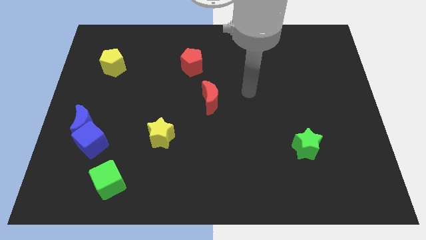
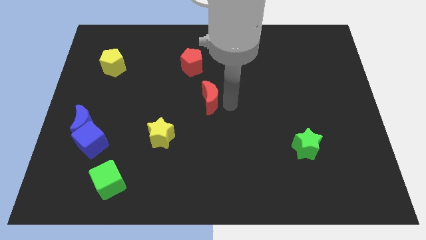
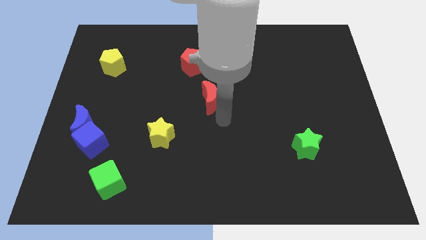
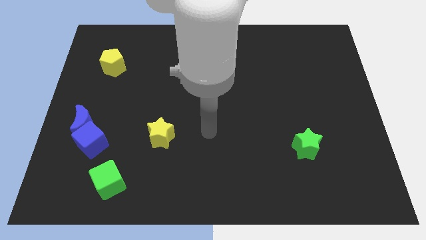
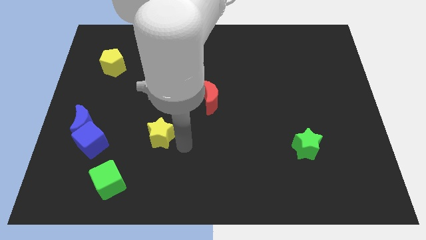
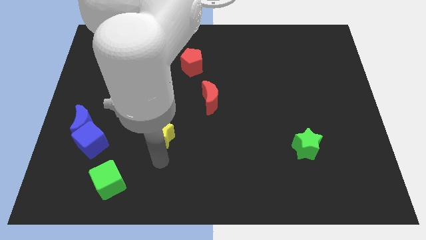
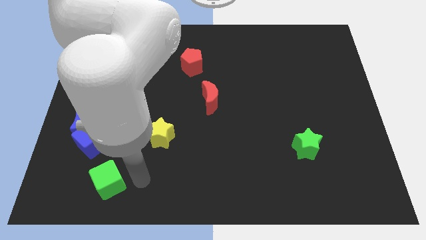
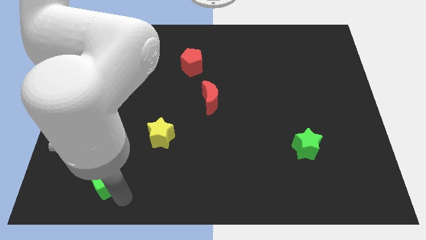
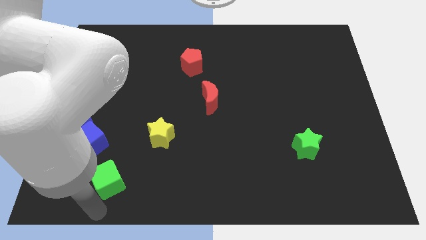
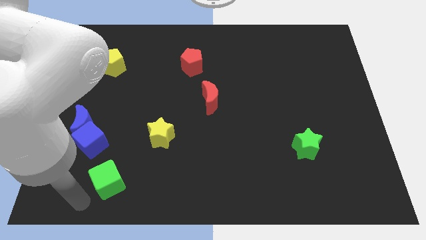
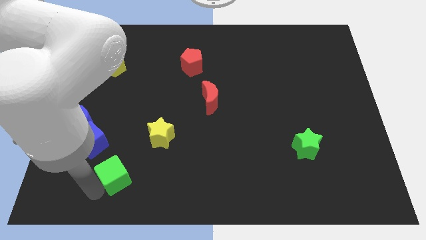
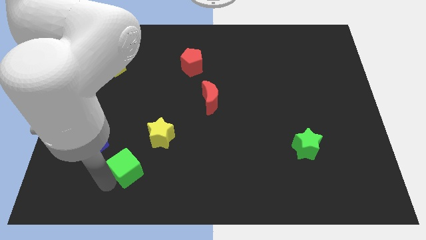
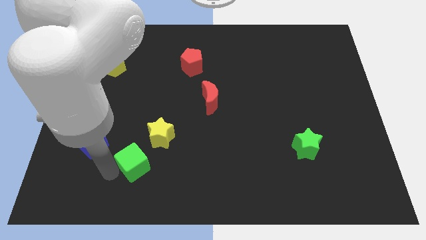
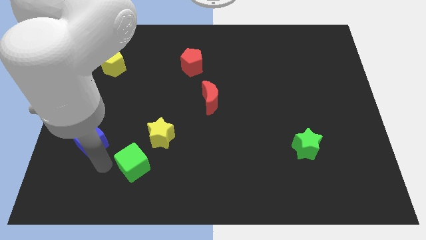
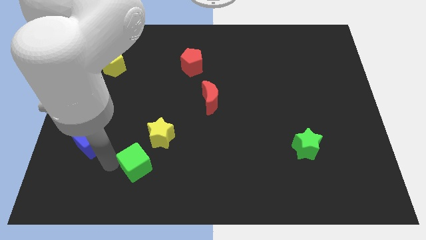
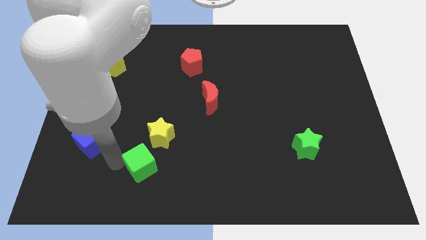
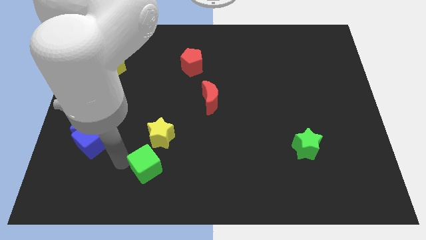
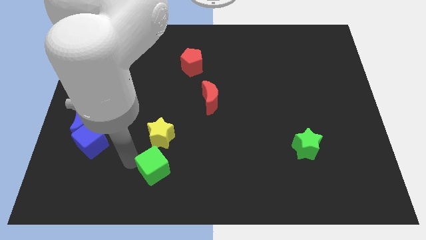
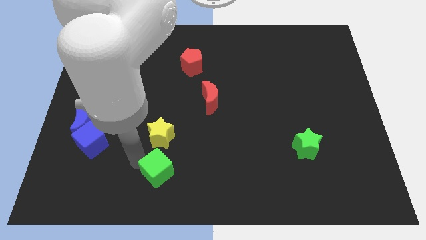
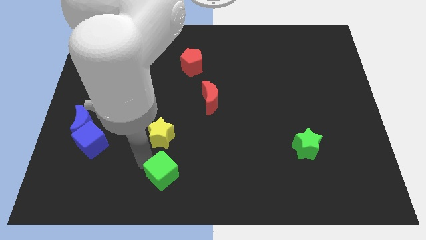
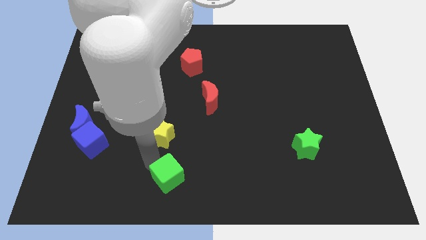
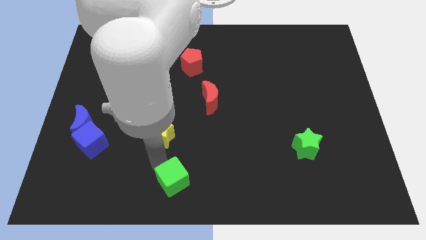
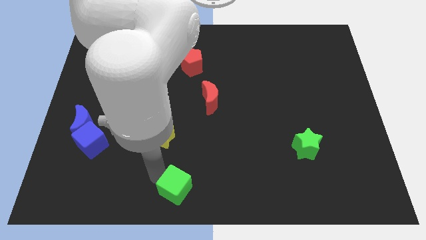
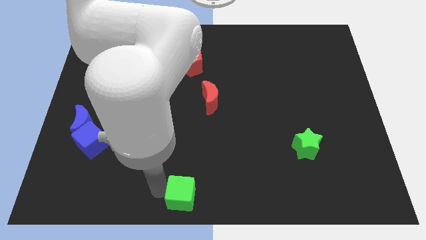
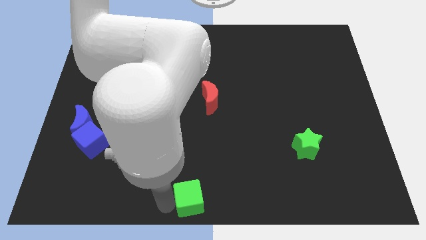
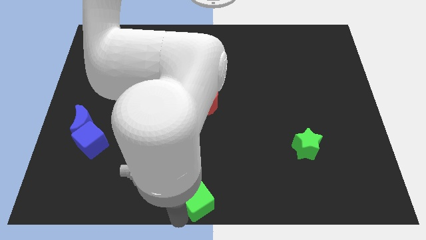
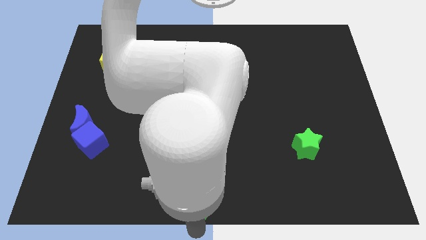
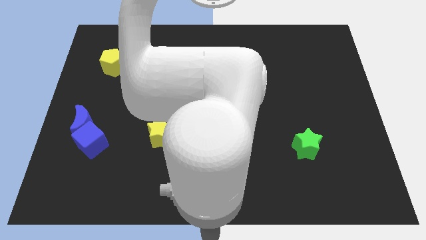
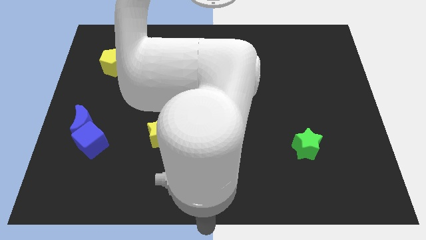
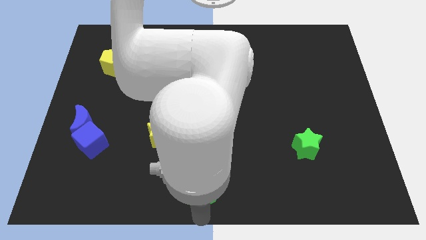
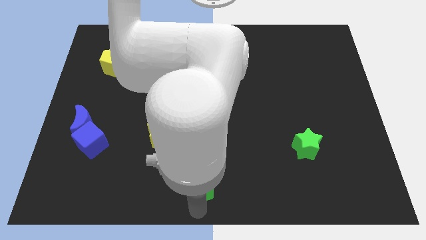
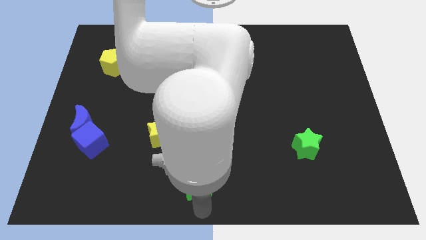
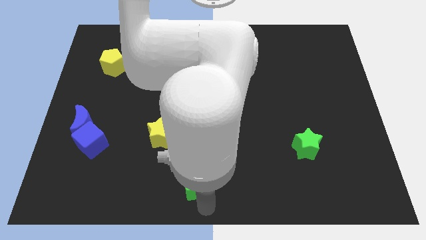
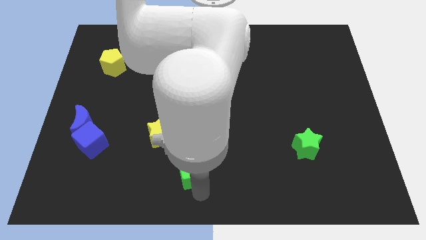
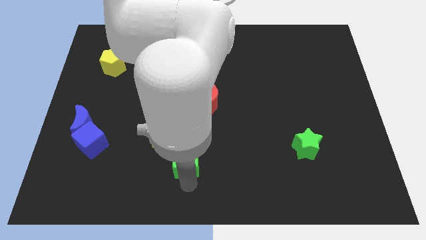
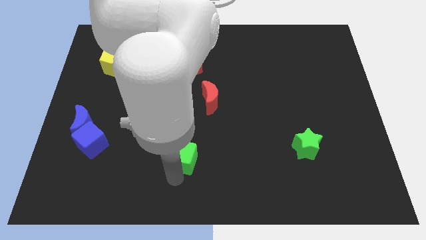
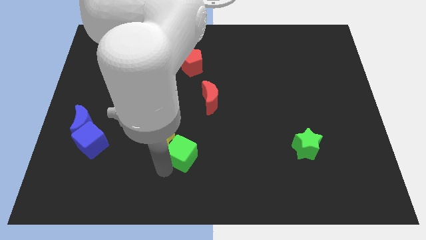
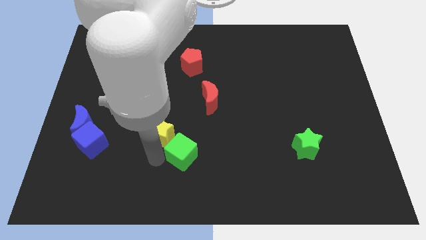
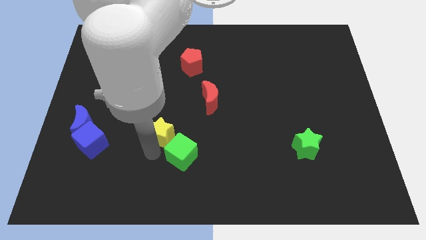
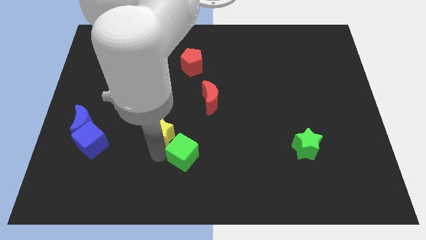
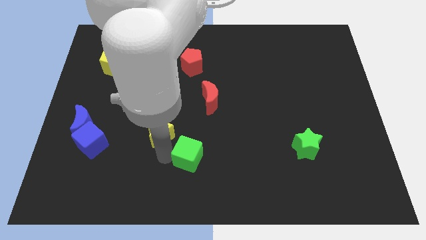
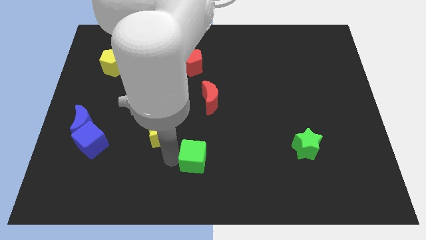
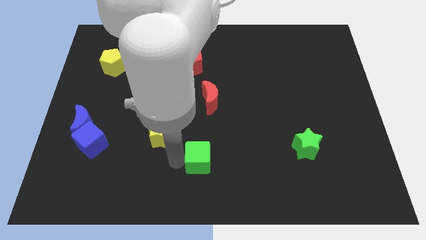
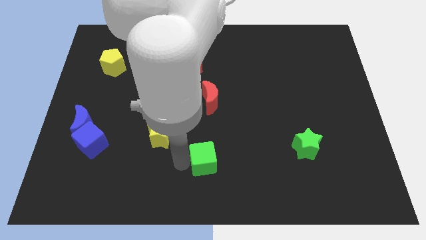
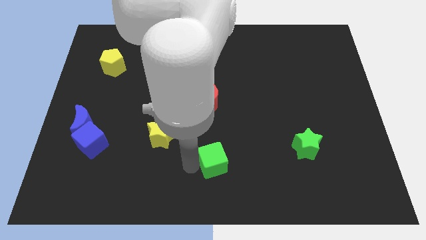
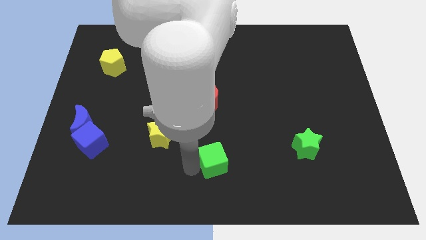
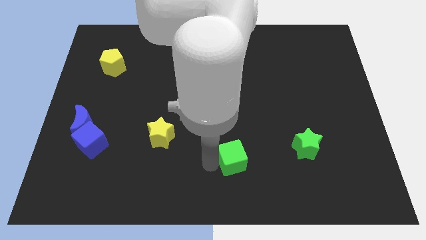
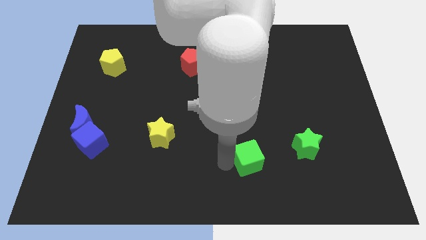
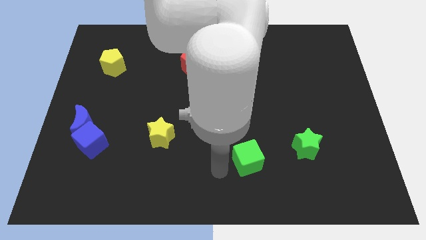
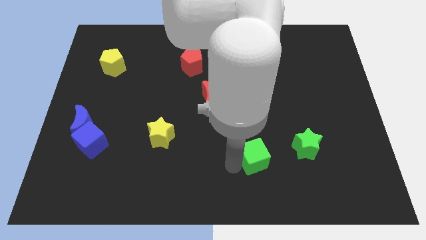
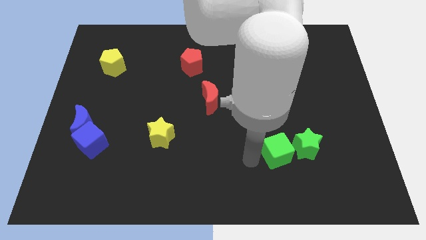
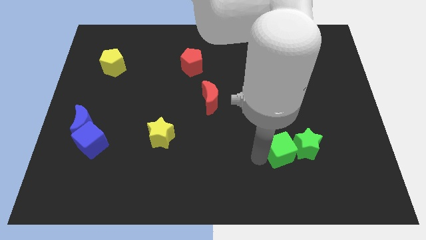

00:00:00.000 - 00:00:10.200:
move the green cube towards the green star

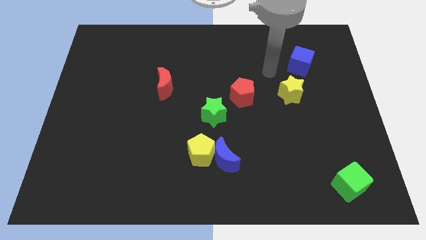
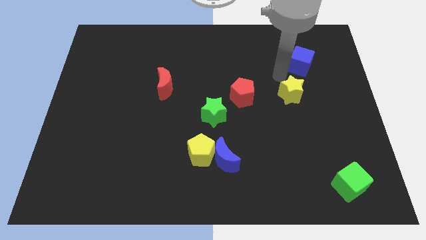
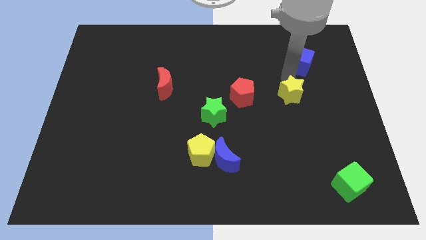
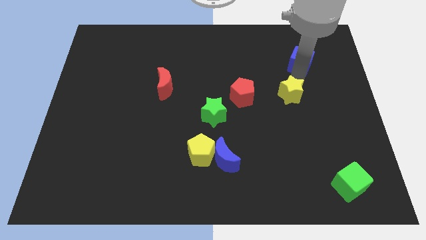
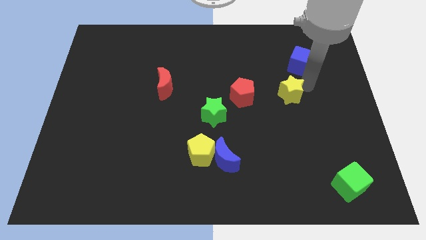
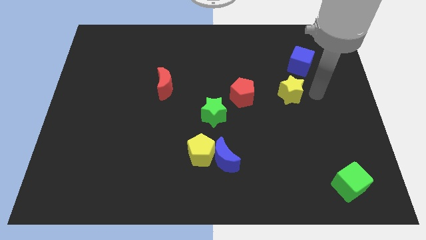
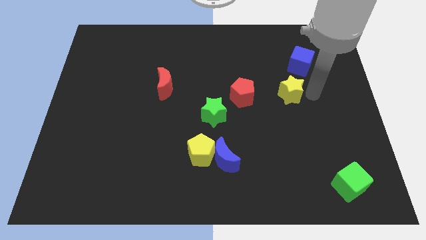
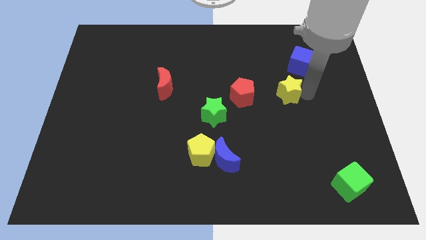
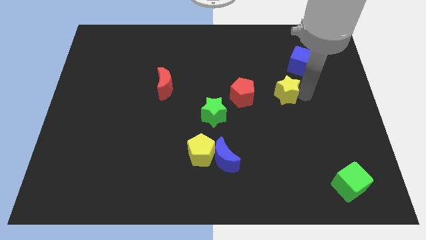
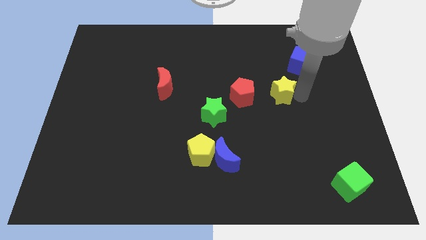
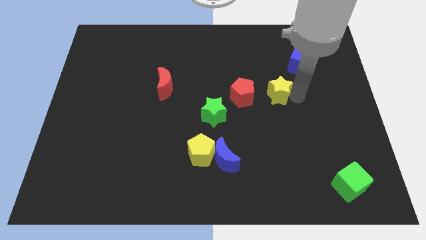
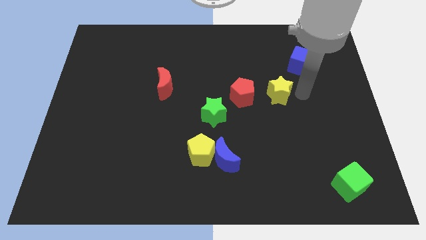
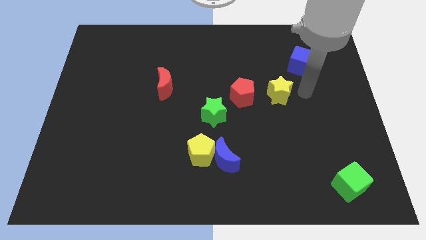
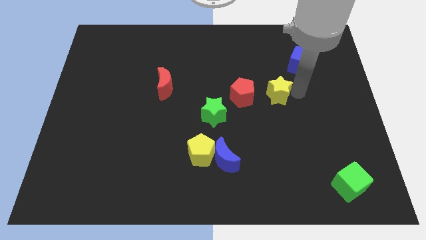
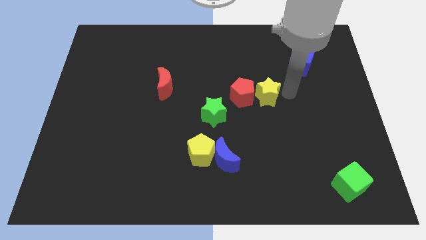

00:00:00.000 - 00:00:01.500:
slide the yellow star to the red pentagon
